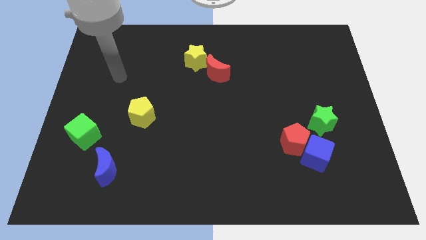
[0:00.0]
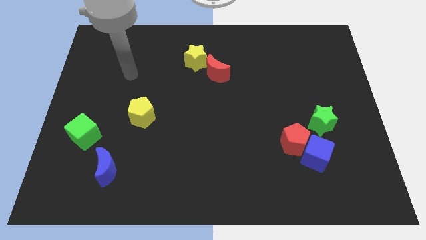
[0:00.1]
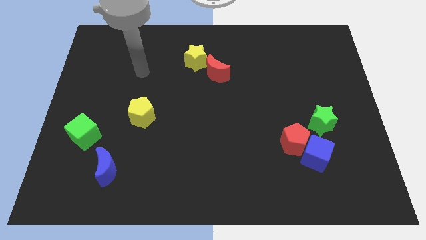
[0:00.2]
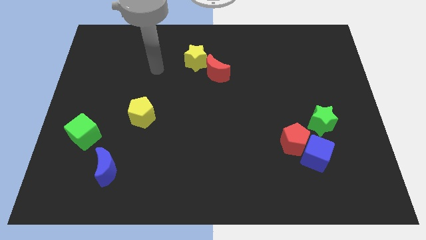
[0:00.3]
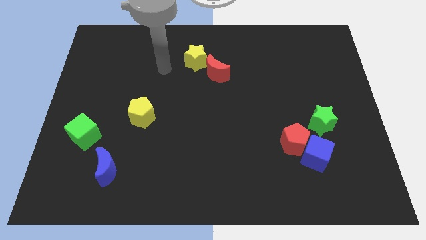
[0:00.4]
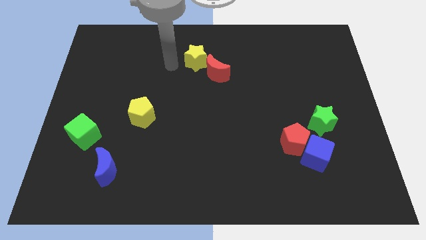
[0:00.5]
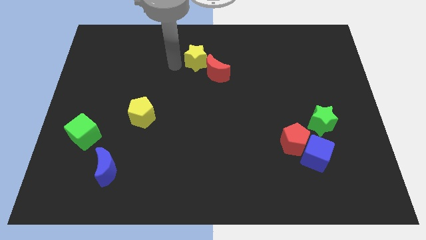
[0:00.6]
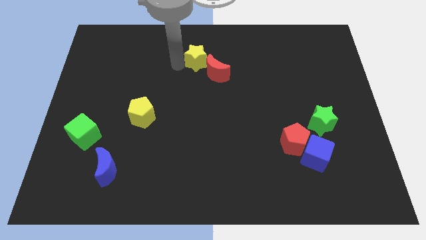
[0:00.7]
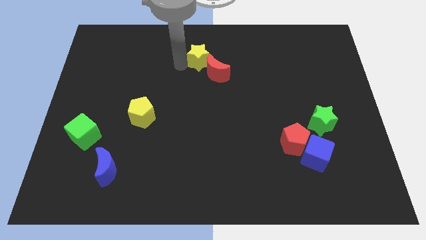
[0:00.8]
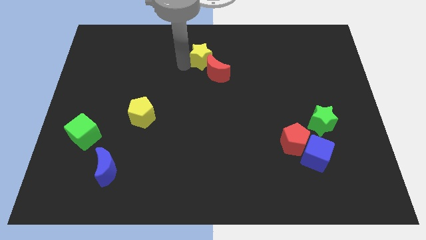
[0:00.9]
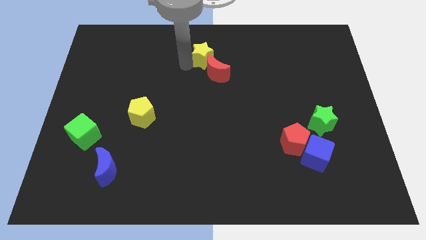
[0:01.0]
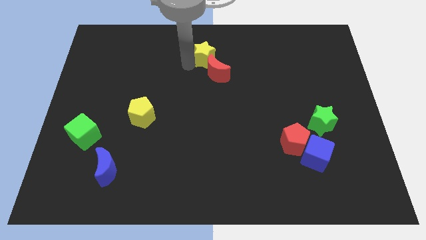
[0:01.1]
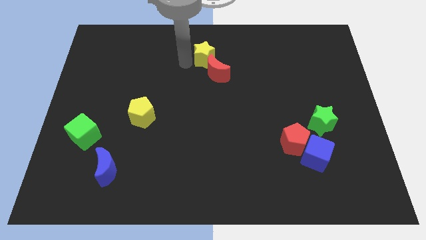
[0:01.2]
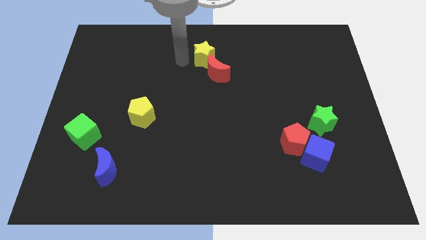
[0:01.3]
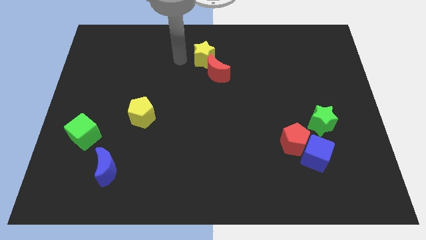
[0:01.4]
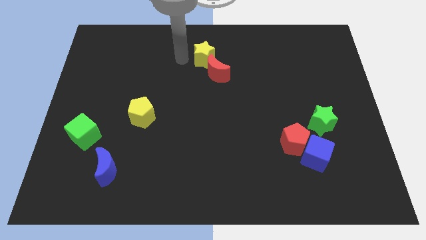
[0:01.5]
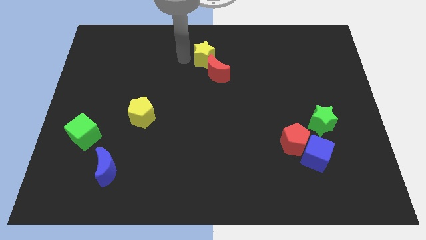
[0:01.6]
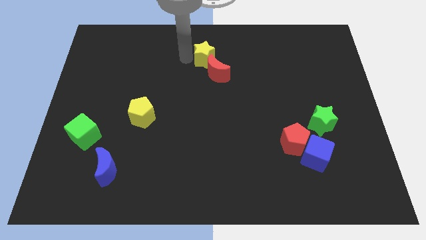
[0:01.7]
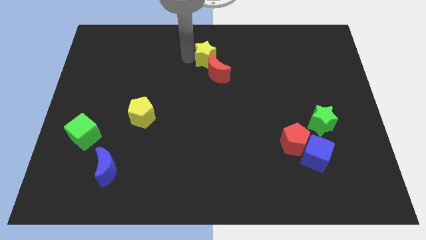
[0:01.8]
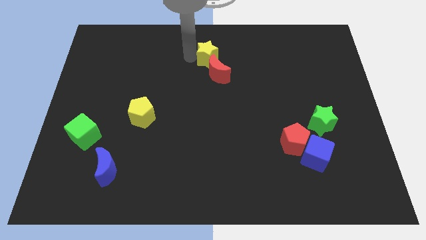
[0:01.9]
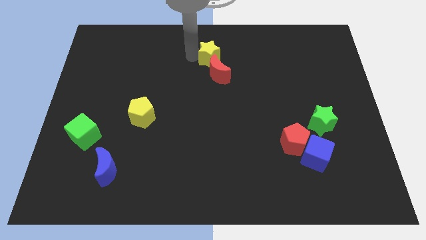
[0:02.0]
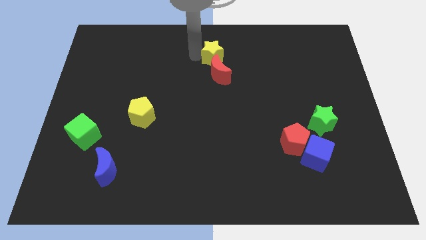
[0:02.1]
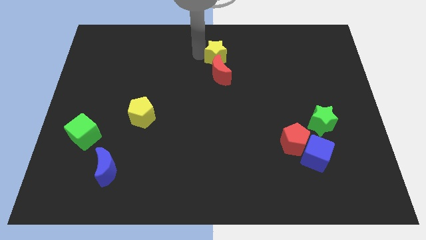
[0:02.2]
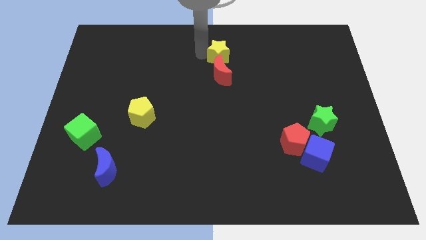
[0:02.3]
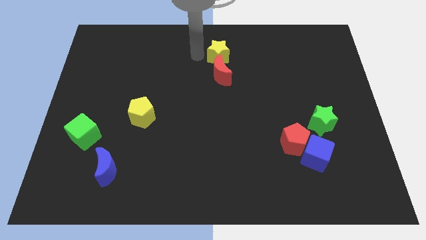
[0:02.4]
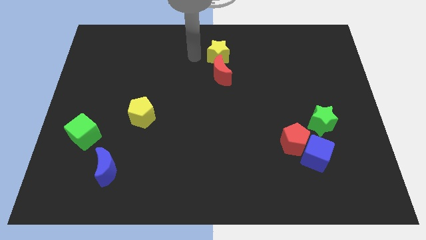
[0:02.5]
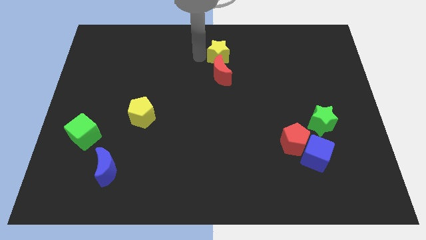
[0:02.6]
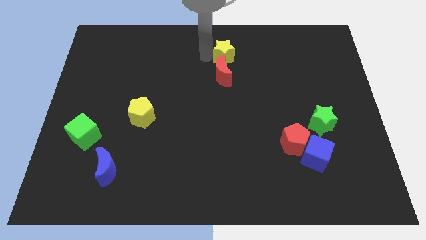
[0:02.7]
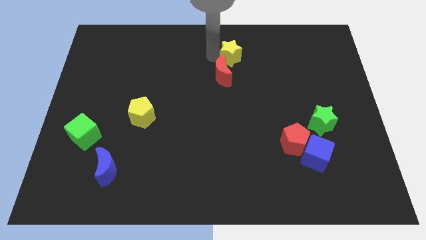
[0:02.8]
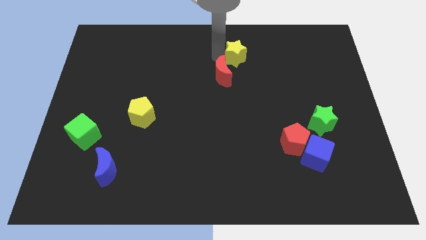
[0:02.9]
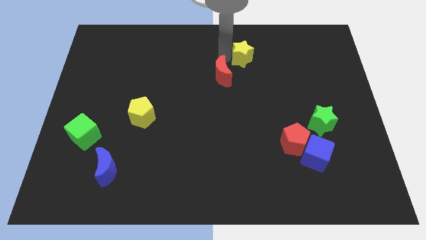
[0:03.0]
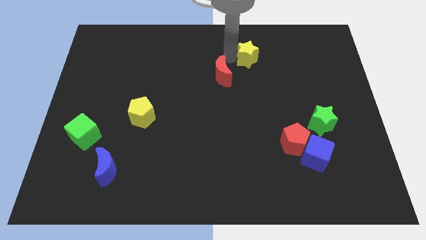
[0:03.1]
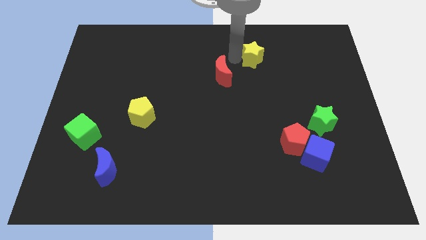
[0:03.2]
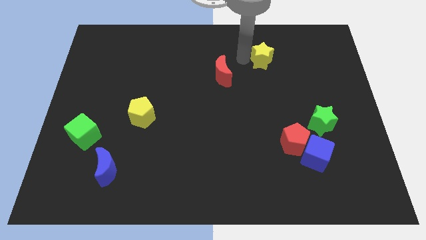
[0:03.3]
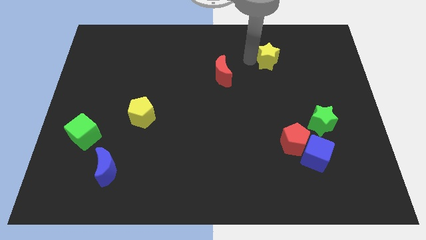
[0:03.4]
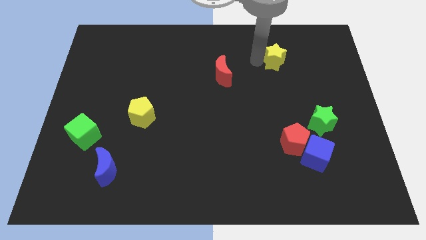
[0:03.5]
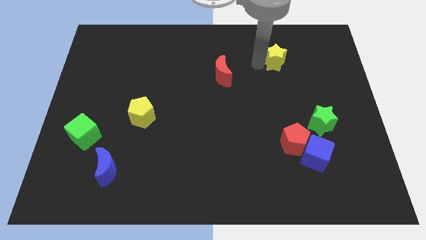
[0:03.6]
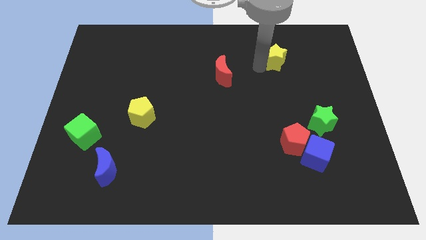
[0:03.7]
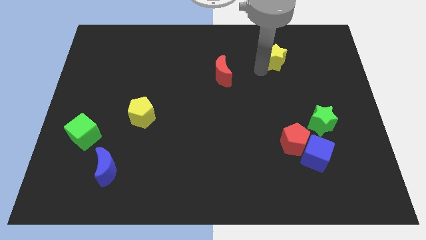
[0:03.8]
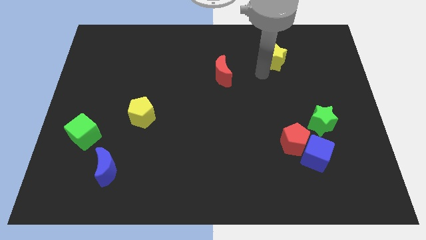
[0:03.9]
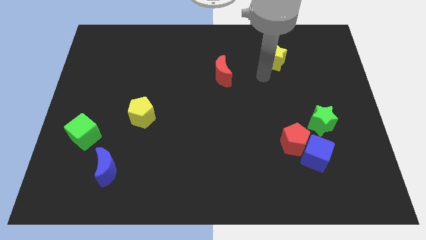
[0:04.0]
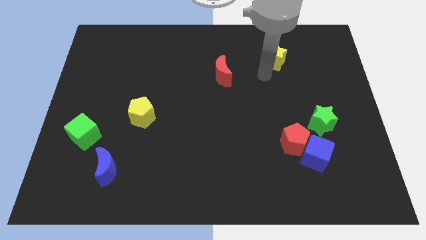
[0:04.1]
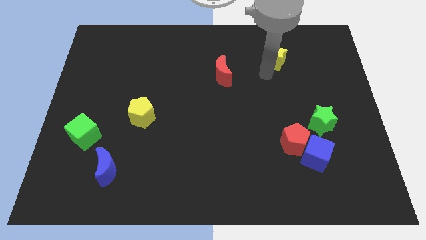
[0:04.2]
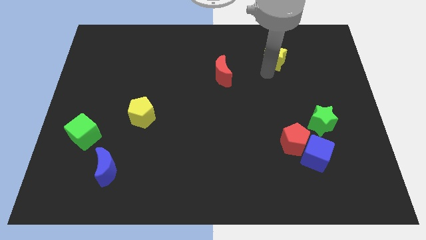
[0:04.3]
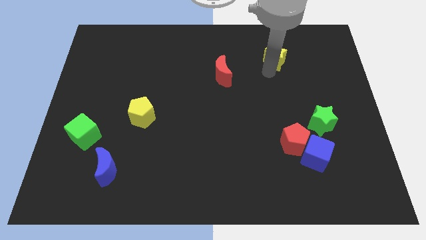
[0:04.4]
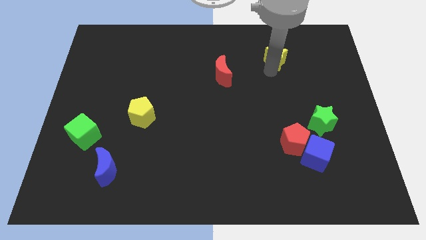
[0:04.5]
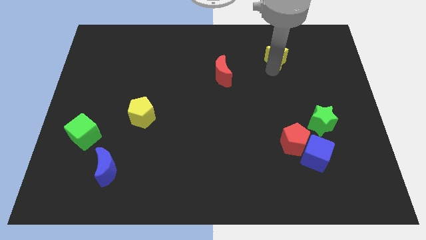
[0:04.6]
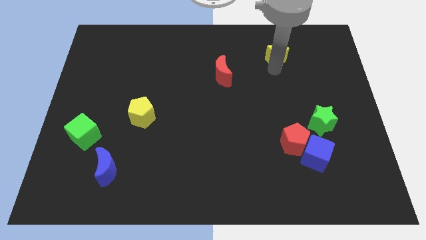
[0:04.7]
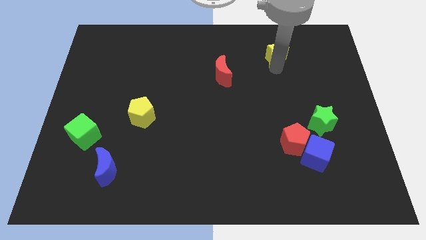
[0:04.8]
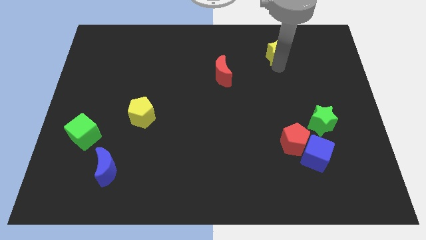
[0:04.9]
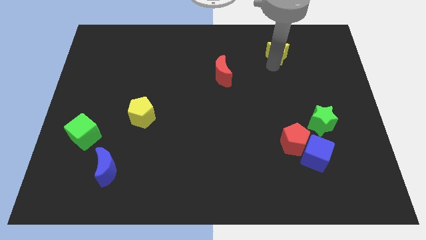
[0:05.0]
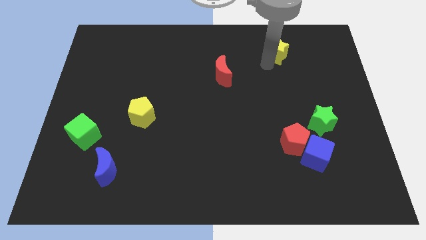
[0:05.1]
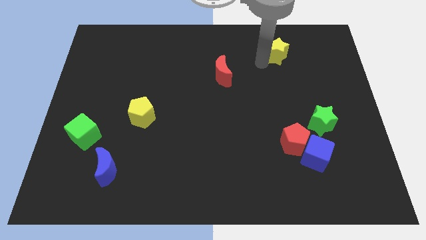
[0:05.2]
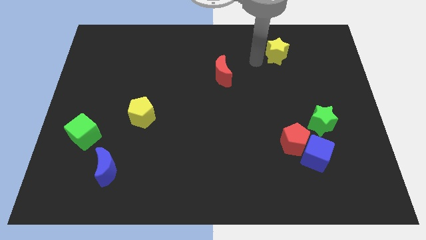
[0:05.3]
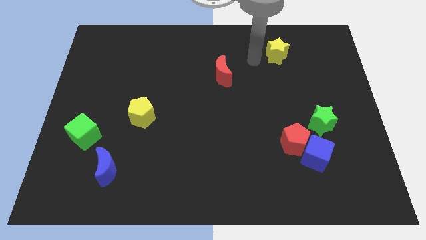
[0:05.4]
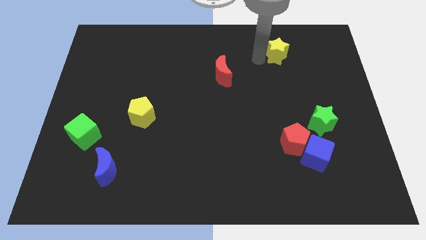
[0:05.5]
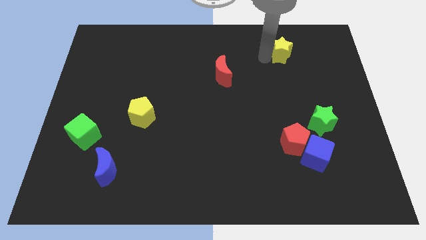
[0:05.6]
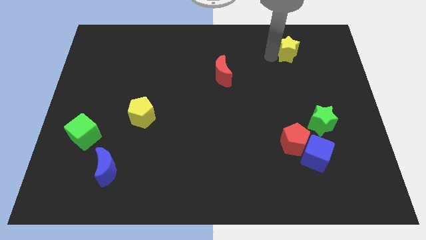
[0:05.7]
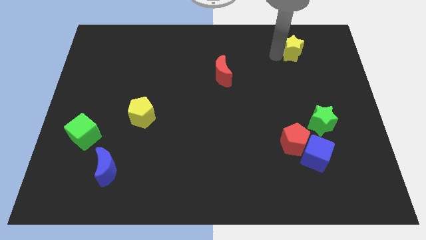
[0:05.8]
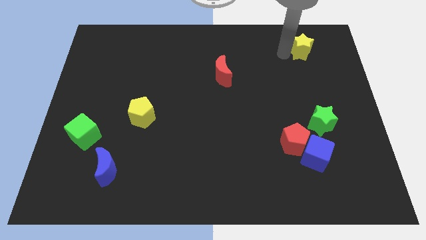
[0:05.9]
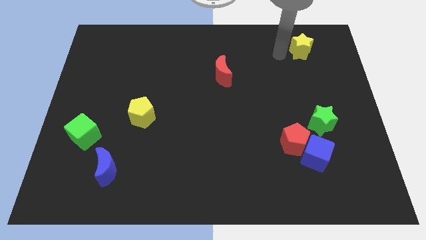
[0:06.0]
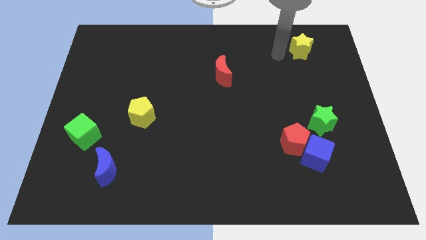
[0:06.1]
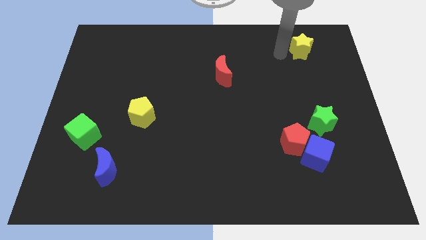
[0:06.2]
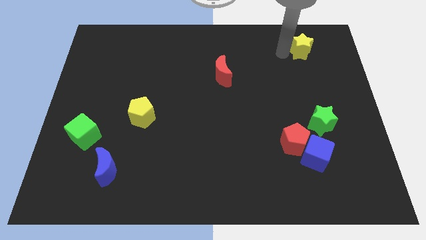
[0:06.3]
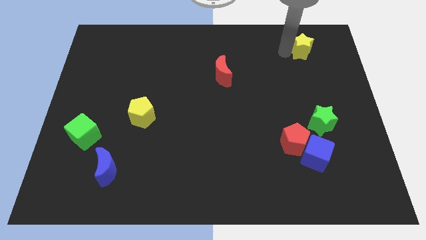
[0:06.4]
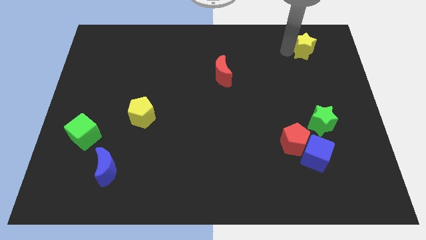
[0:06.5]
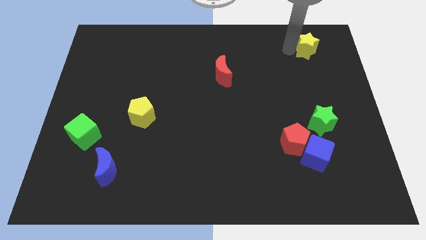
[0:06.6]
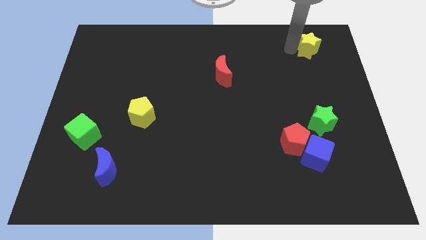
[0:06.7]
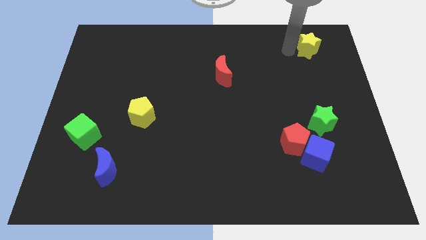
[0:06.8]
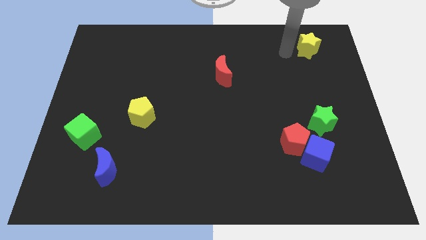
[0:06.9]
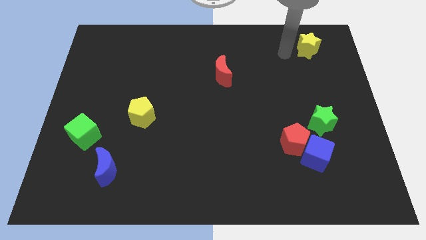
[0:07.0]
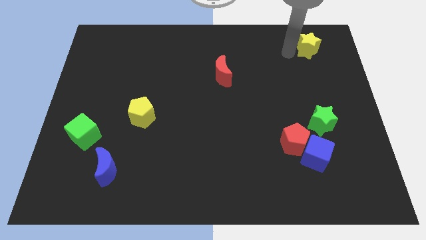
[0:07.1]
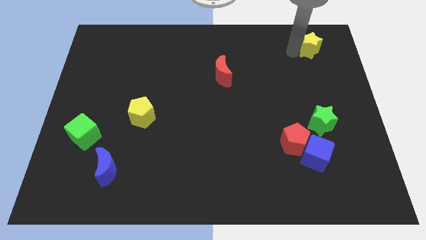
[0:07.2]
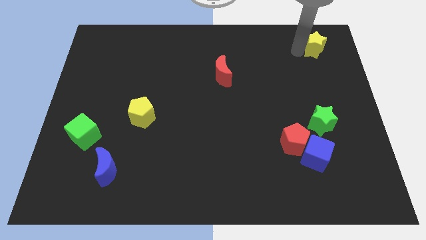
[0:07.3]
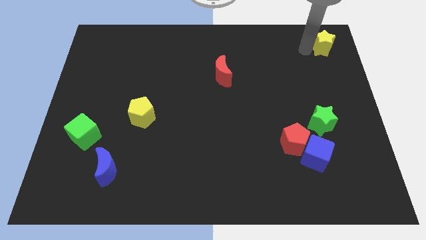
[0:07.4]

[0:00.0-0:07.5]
put the yellow star to the top right
